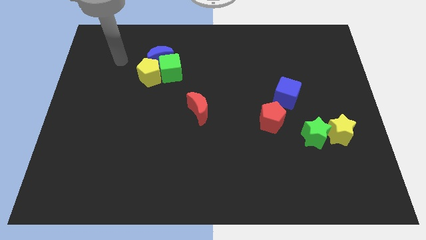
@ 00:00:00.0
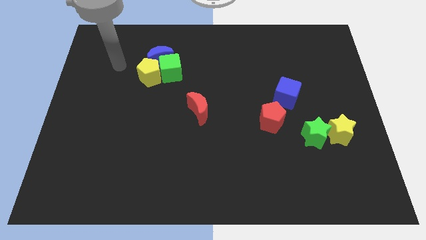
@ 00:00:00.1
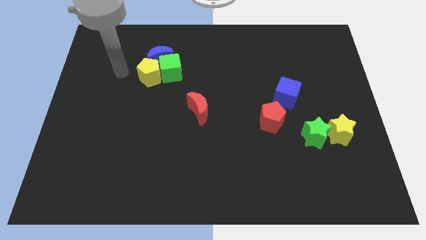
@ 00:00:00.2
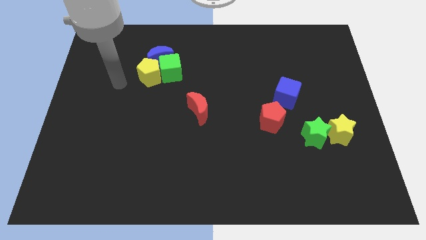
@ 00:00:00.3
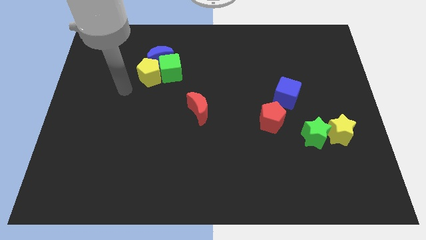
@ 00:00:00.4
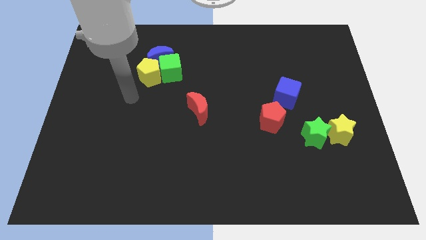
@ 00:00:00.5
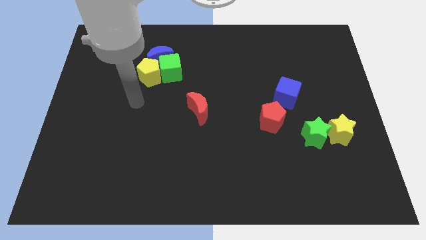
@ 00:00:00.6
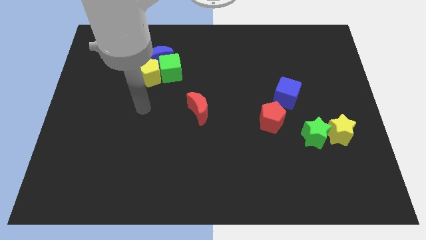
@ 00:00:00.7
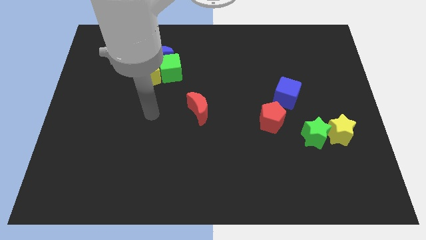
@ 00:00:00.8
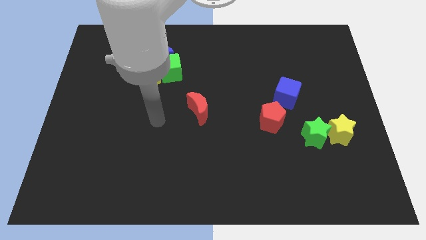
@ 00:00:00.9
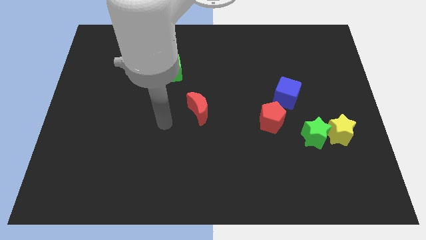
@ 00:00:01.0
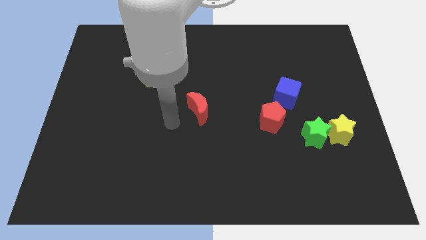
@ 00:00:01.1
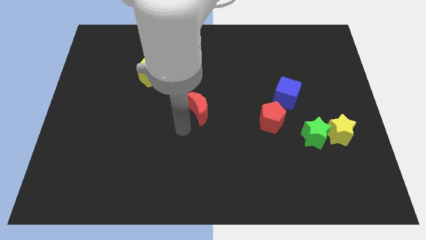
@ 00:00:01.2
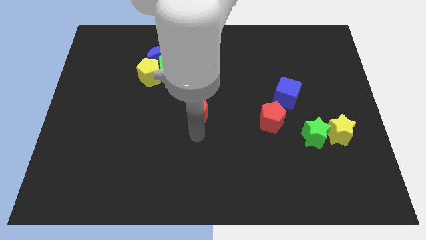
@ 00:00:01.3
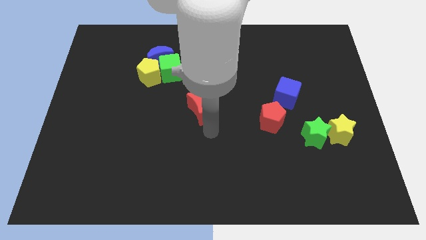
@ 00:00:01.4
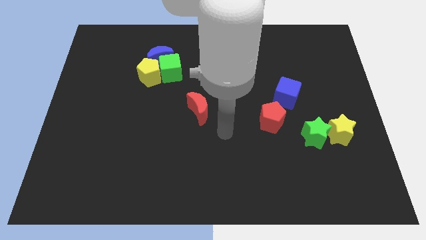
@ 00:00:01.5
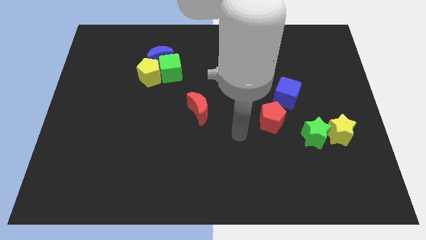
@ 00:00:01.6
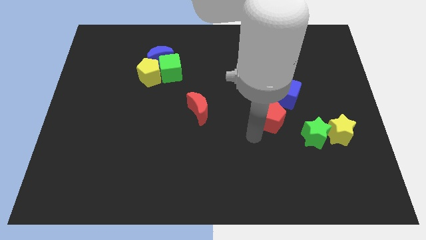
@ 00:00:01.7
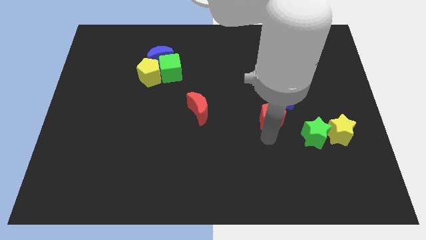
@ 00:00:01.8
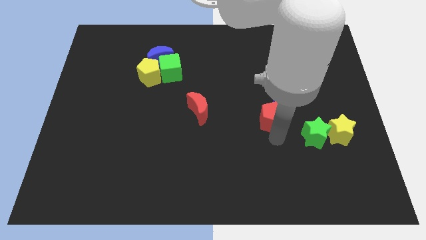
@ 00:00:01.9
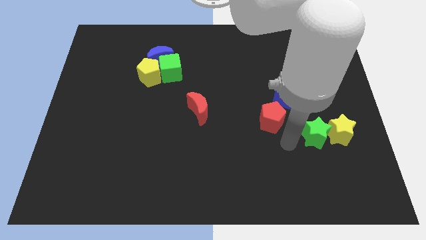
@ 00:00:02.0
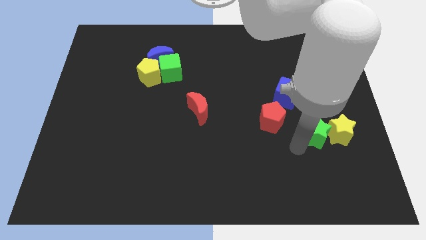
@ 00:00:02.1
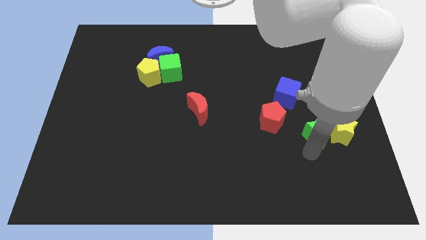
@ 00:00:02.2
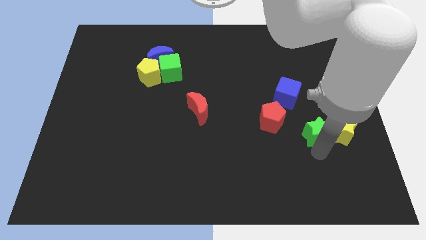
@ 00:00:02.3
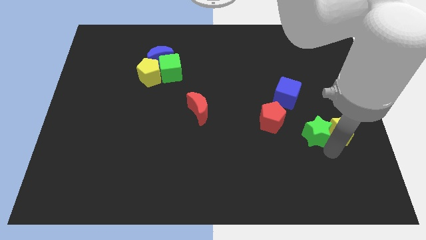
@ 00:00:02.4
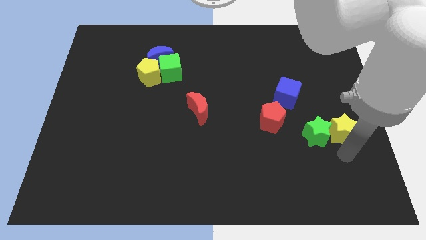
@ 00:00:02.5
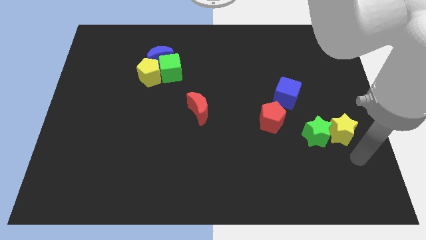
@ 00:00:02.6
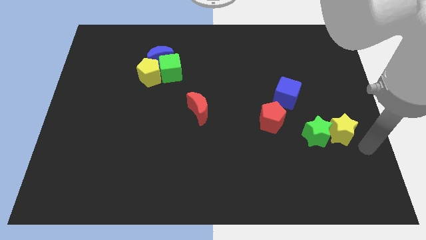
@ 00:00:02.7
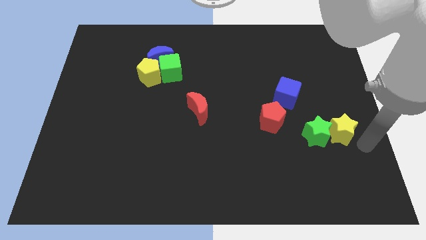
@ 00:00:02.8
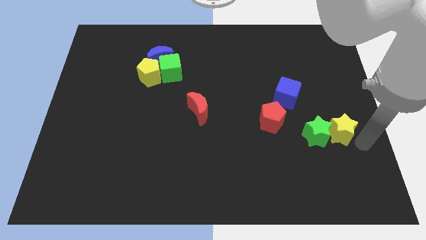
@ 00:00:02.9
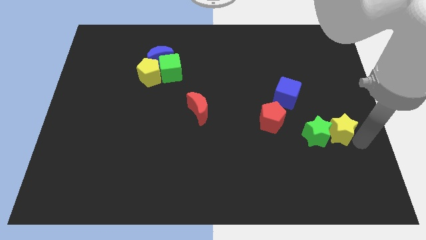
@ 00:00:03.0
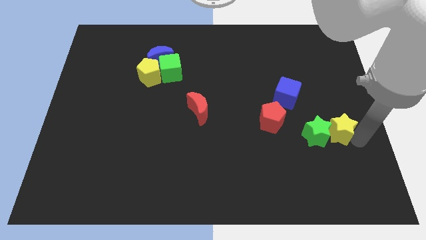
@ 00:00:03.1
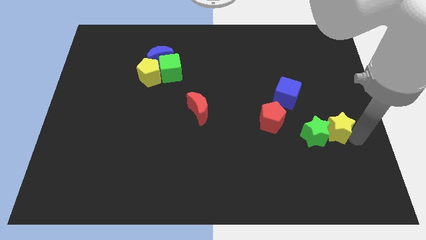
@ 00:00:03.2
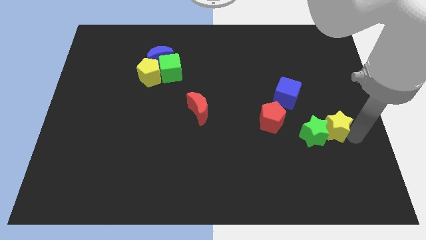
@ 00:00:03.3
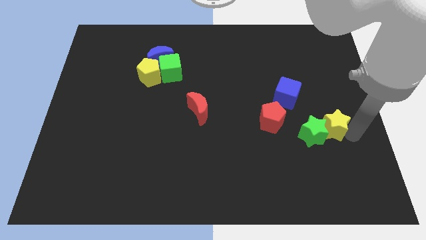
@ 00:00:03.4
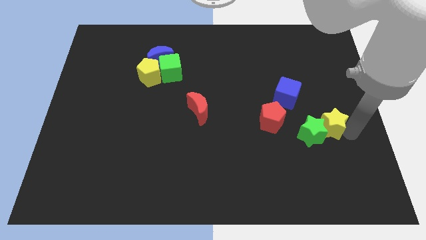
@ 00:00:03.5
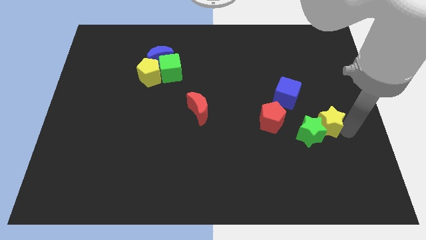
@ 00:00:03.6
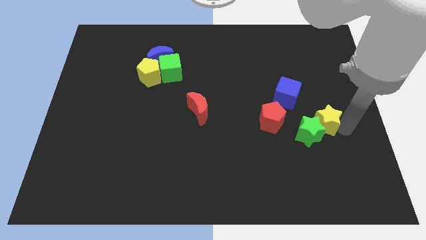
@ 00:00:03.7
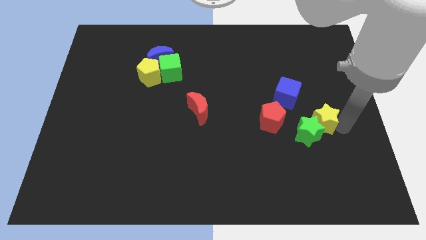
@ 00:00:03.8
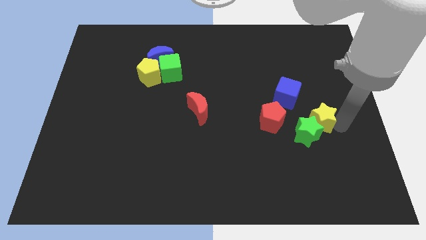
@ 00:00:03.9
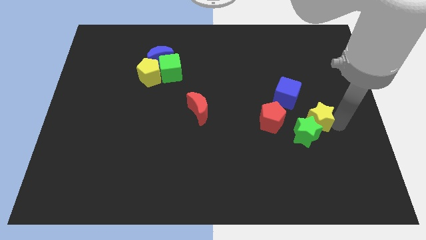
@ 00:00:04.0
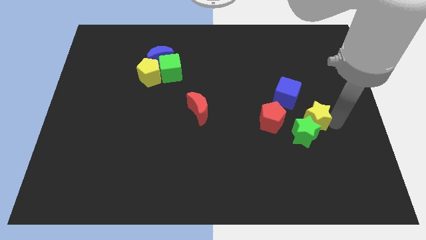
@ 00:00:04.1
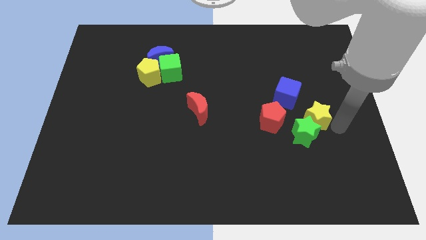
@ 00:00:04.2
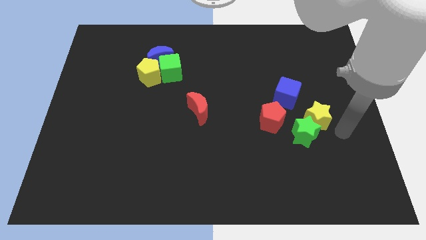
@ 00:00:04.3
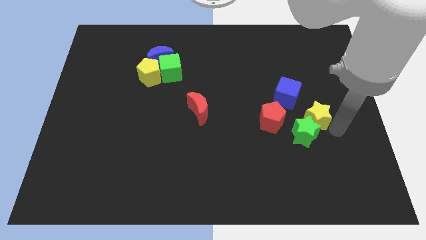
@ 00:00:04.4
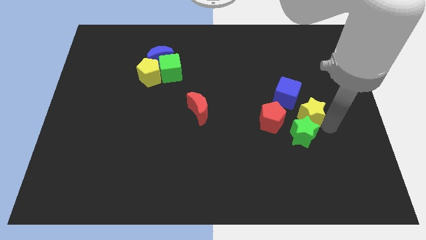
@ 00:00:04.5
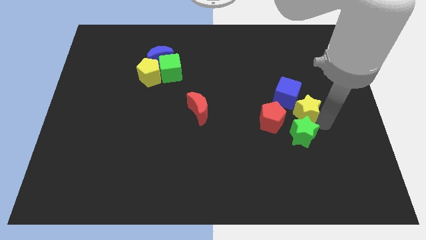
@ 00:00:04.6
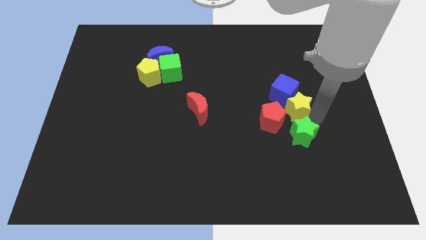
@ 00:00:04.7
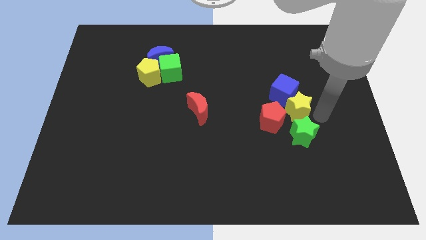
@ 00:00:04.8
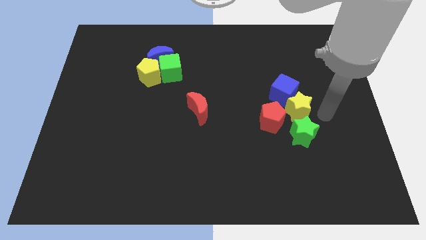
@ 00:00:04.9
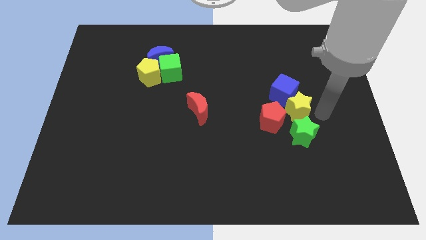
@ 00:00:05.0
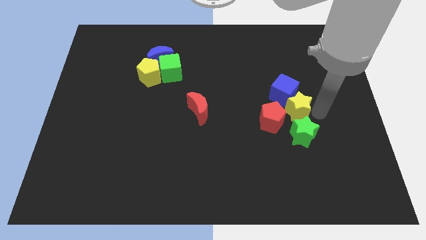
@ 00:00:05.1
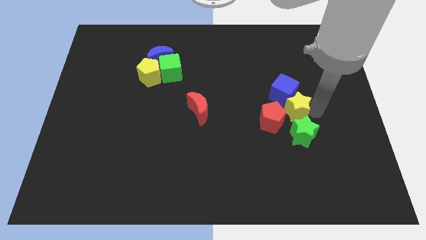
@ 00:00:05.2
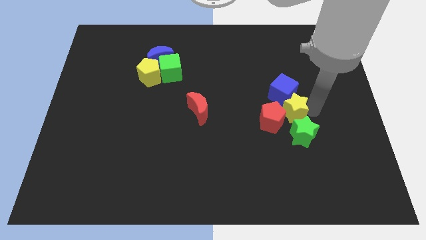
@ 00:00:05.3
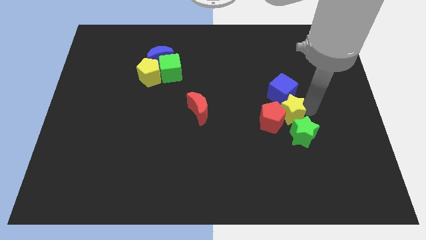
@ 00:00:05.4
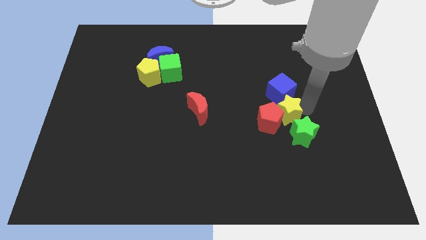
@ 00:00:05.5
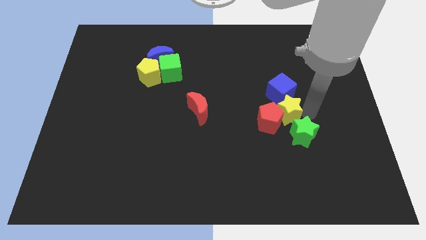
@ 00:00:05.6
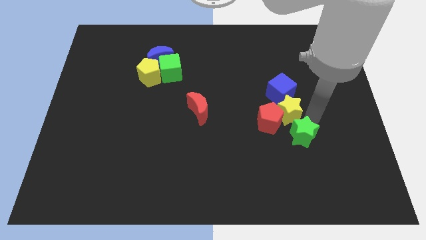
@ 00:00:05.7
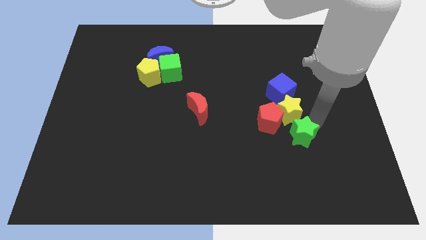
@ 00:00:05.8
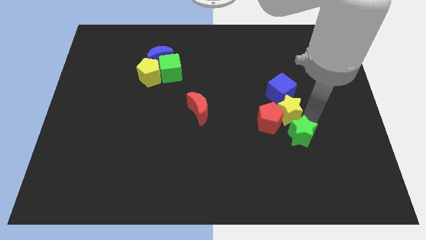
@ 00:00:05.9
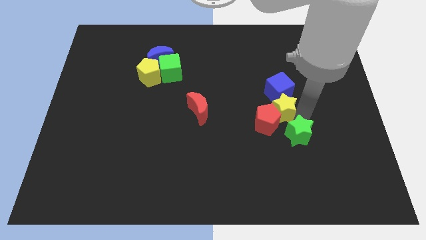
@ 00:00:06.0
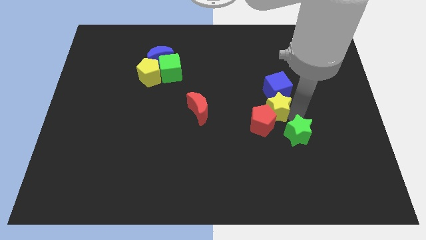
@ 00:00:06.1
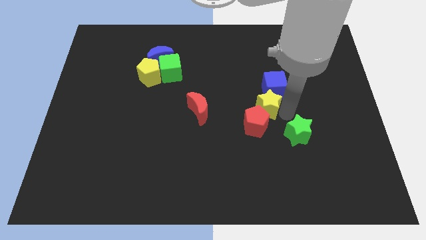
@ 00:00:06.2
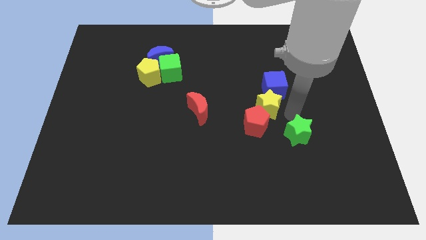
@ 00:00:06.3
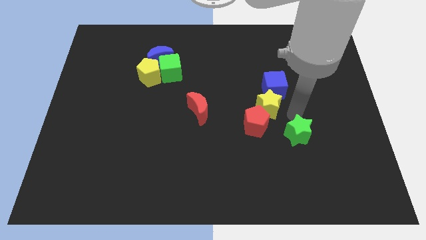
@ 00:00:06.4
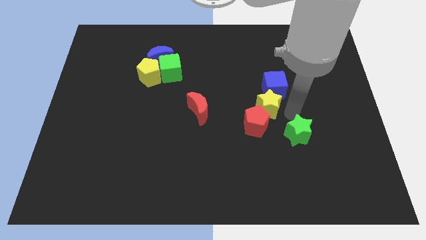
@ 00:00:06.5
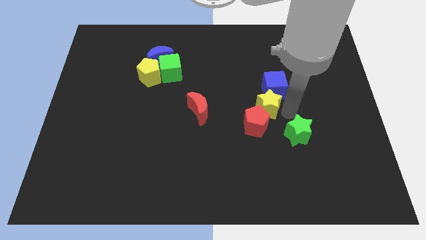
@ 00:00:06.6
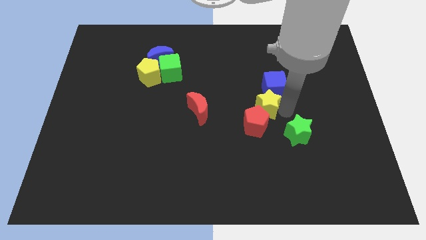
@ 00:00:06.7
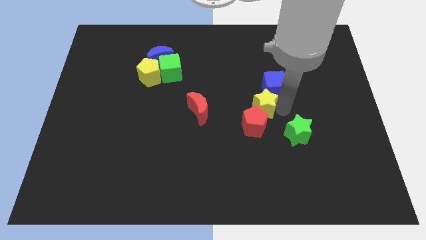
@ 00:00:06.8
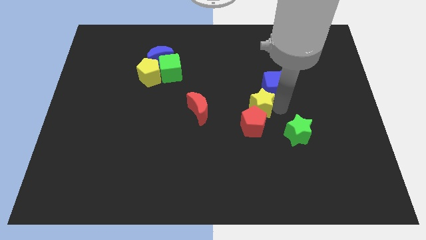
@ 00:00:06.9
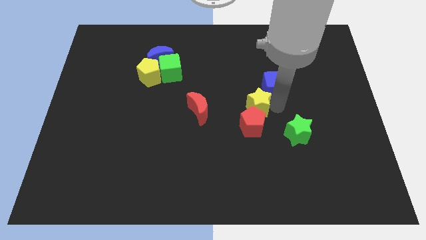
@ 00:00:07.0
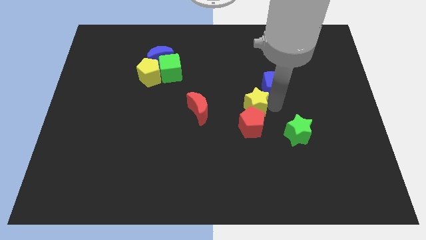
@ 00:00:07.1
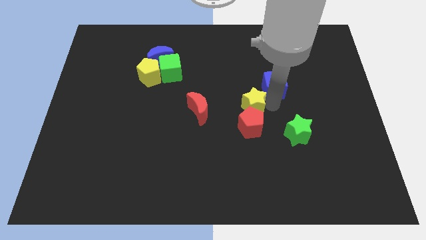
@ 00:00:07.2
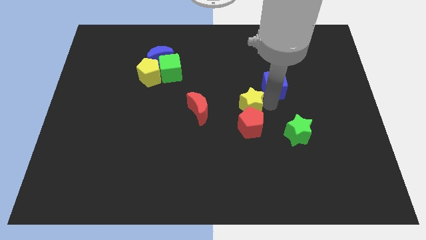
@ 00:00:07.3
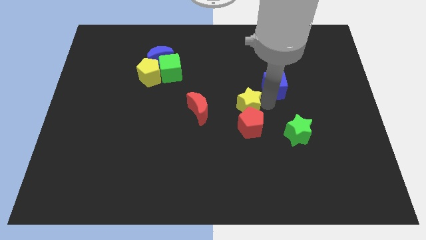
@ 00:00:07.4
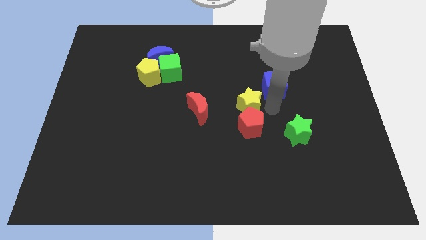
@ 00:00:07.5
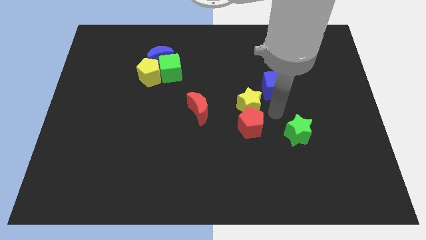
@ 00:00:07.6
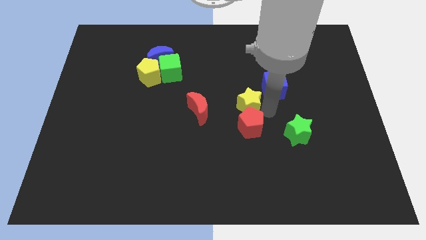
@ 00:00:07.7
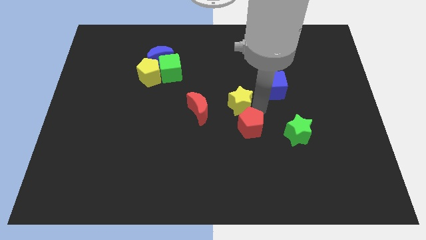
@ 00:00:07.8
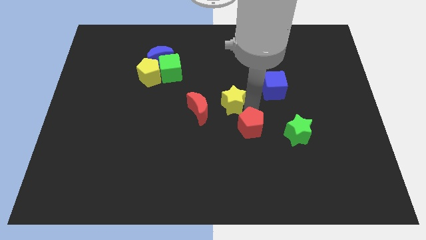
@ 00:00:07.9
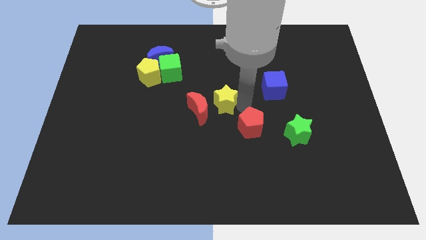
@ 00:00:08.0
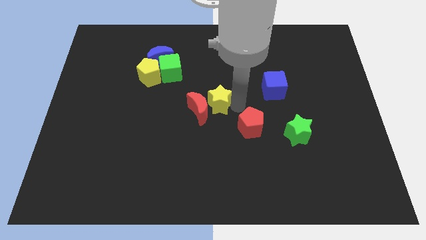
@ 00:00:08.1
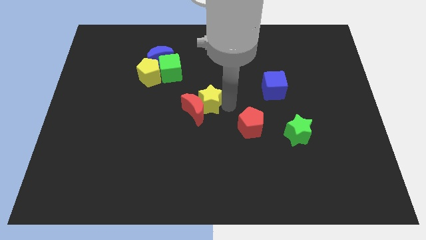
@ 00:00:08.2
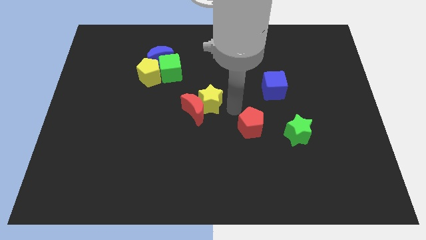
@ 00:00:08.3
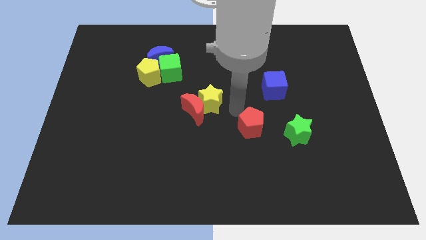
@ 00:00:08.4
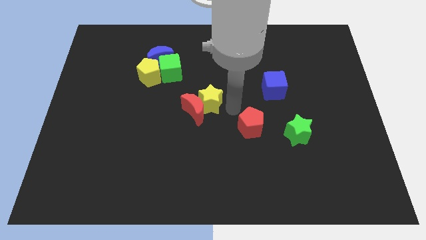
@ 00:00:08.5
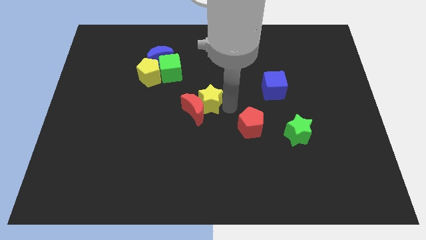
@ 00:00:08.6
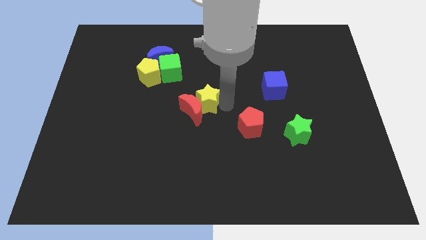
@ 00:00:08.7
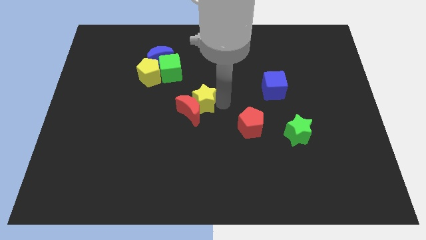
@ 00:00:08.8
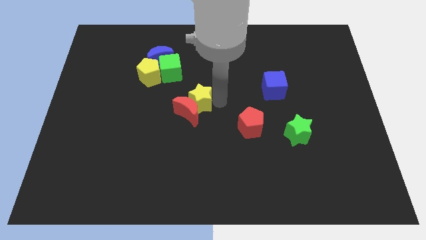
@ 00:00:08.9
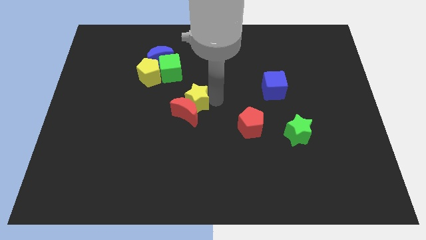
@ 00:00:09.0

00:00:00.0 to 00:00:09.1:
push the yellow star to the top left side of the red moon
